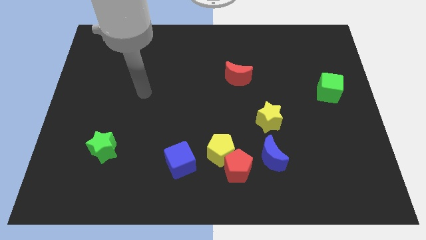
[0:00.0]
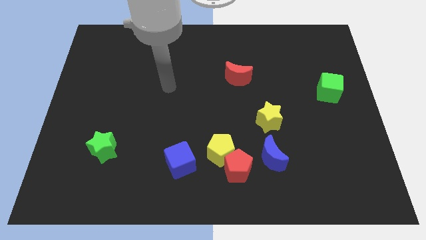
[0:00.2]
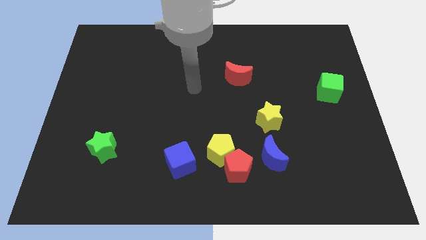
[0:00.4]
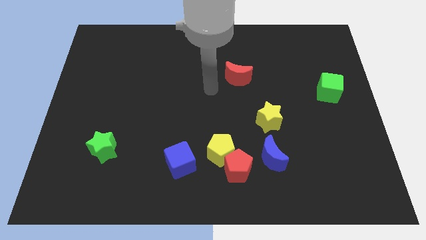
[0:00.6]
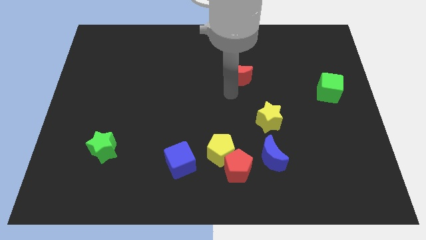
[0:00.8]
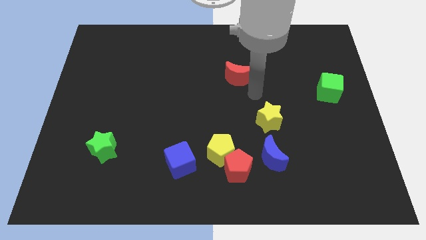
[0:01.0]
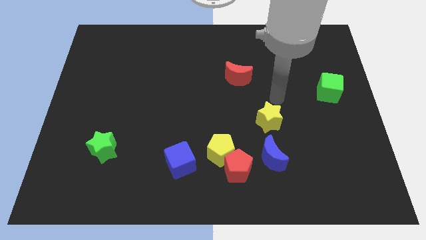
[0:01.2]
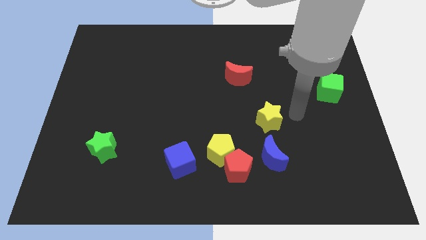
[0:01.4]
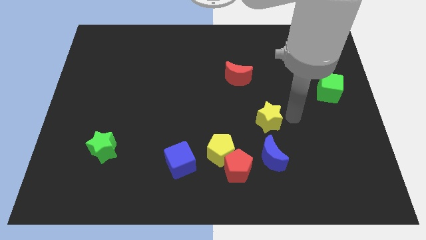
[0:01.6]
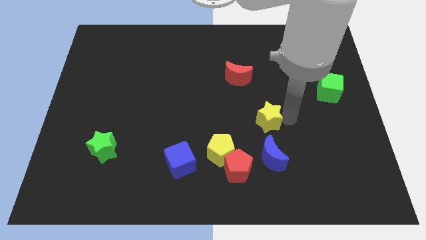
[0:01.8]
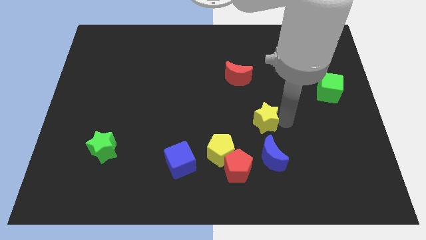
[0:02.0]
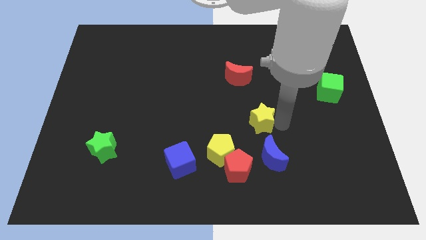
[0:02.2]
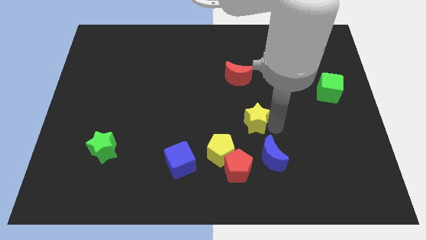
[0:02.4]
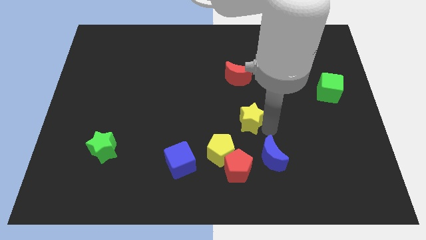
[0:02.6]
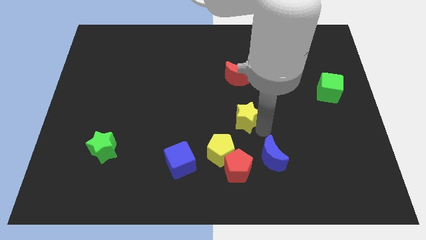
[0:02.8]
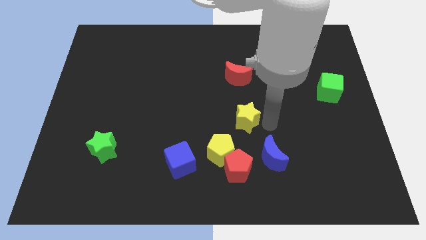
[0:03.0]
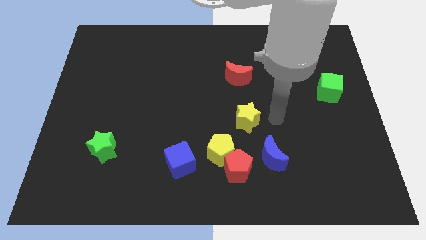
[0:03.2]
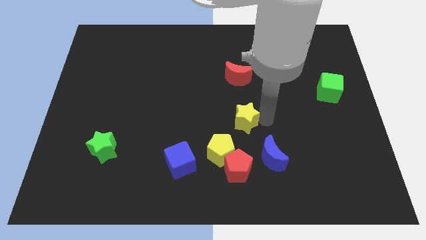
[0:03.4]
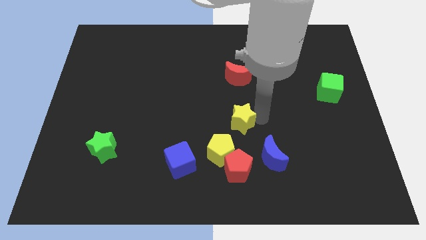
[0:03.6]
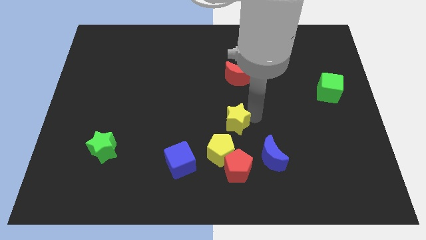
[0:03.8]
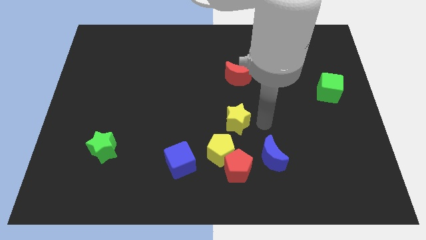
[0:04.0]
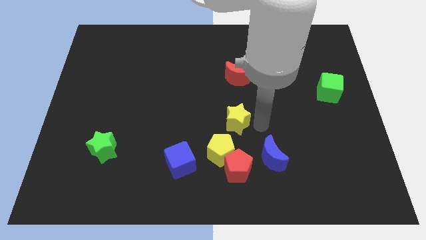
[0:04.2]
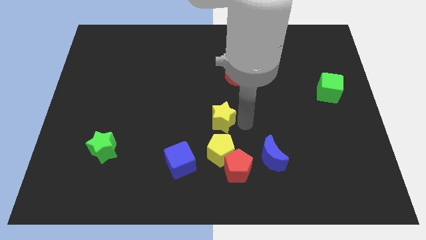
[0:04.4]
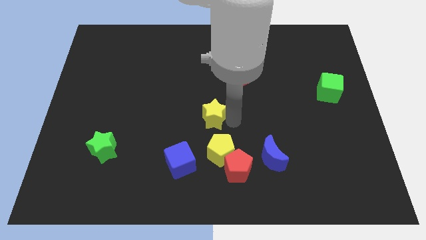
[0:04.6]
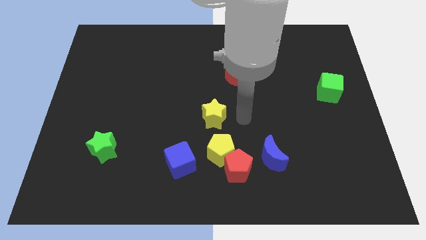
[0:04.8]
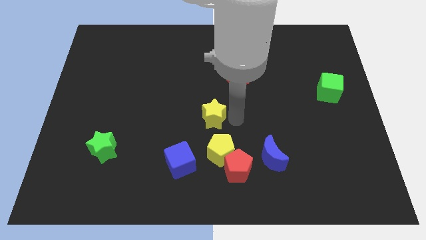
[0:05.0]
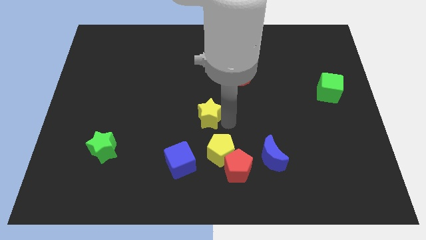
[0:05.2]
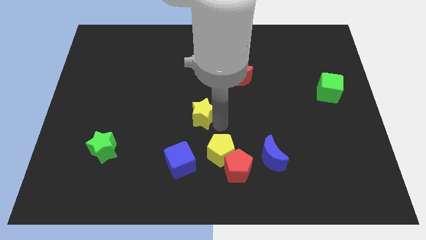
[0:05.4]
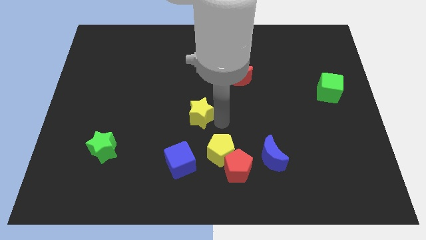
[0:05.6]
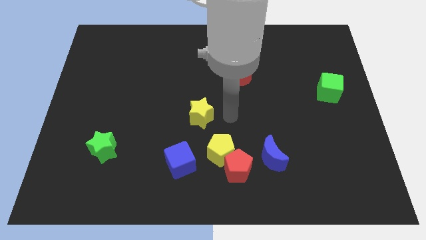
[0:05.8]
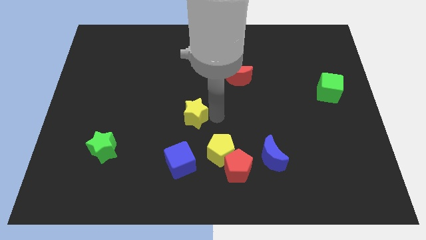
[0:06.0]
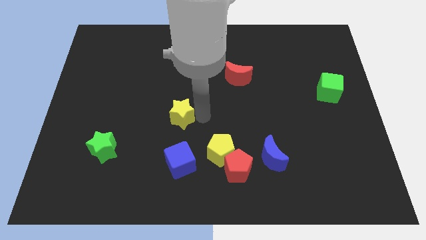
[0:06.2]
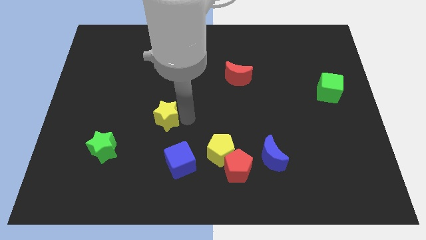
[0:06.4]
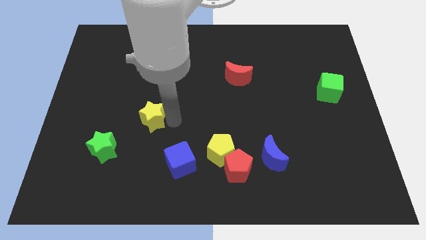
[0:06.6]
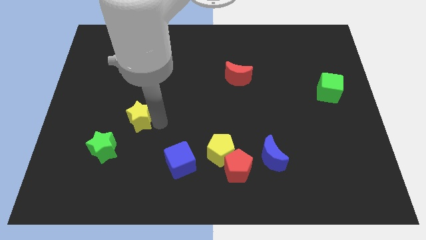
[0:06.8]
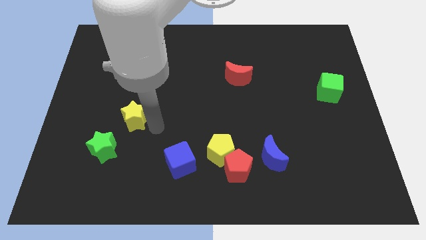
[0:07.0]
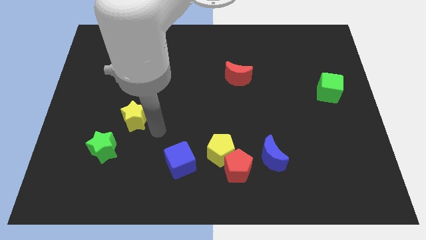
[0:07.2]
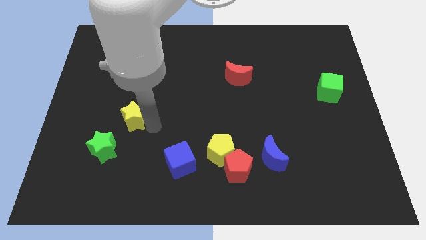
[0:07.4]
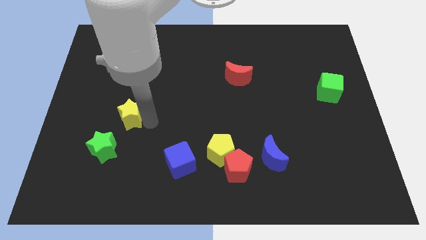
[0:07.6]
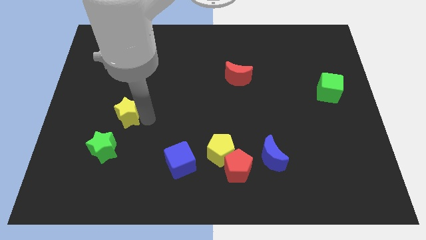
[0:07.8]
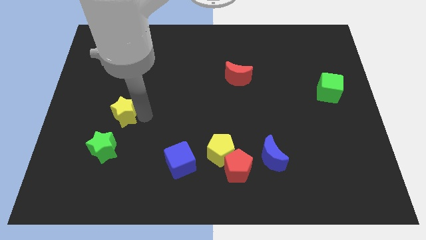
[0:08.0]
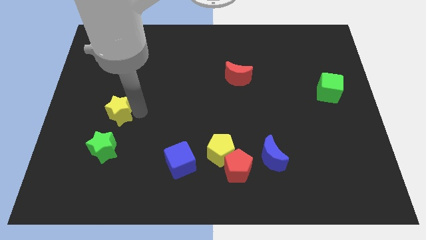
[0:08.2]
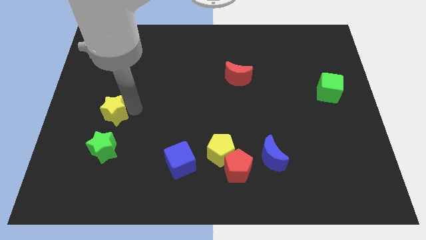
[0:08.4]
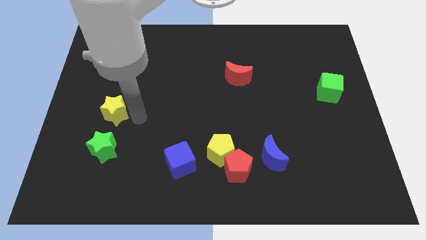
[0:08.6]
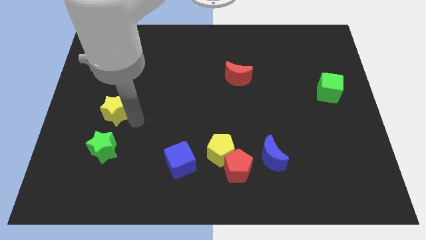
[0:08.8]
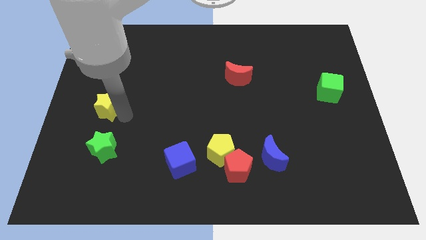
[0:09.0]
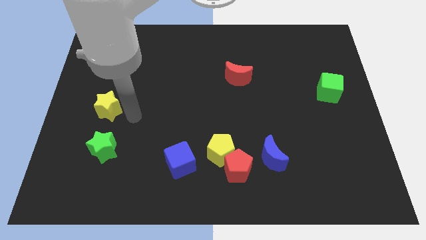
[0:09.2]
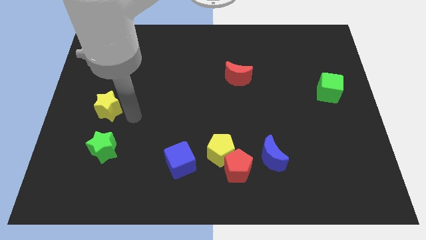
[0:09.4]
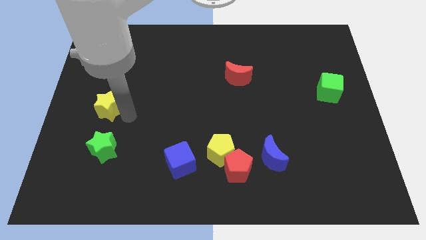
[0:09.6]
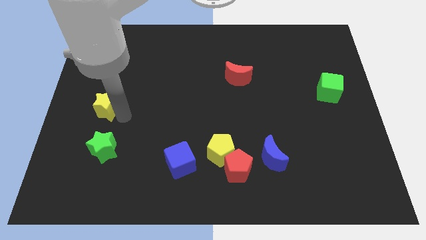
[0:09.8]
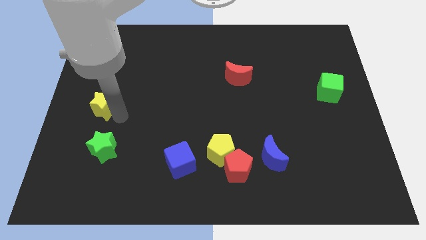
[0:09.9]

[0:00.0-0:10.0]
put the yellow star to the center left

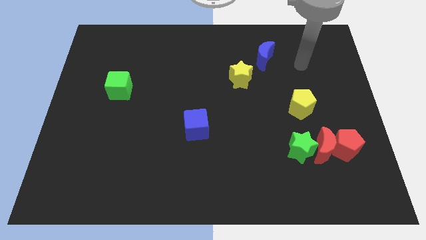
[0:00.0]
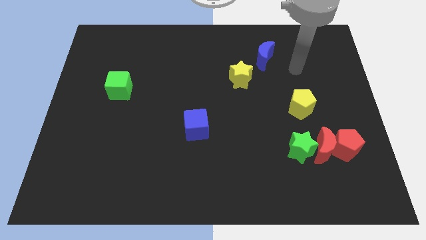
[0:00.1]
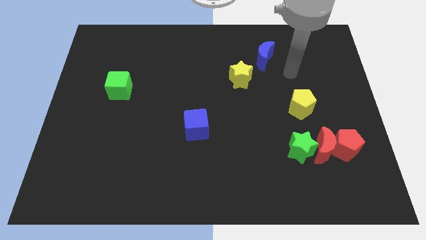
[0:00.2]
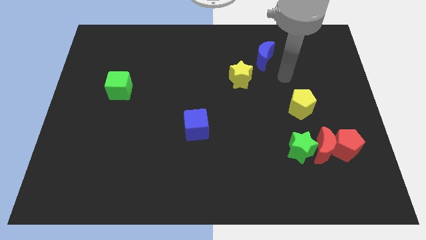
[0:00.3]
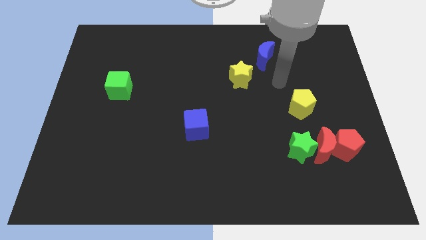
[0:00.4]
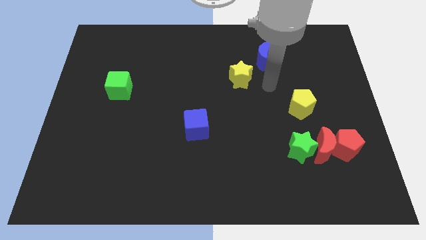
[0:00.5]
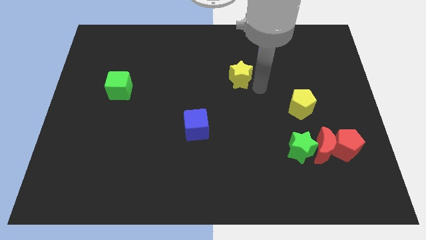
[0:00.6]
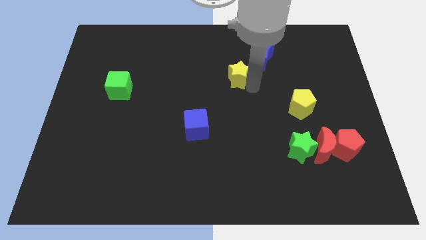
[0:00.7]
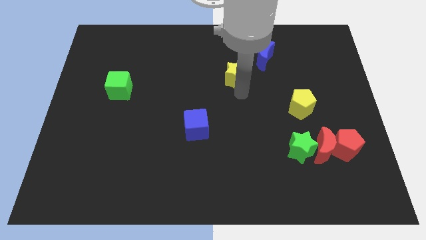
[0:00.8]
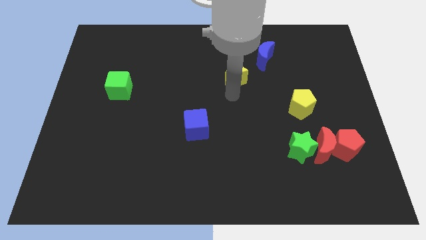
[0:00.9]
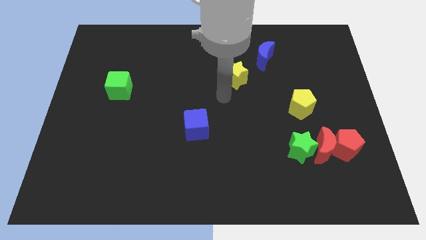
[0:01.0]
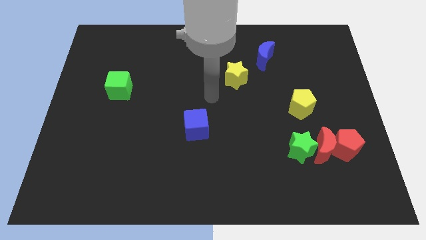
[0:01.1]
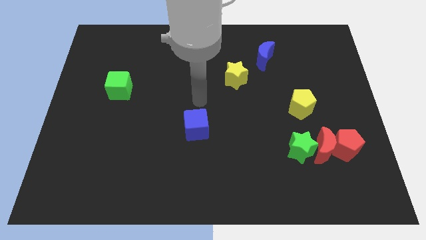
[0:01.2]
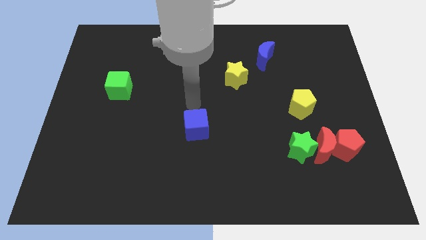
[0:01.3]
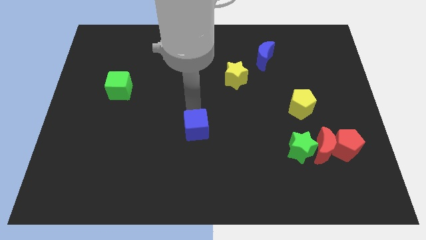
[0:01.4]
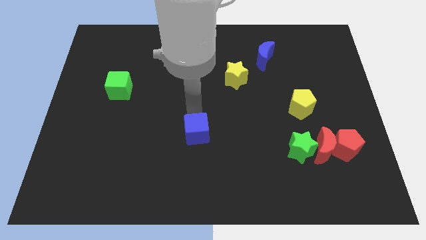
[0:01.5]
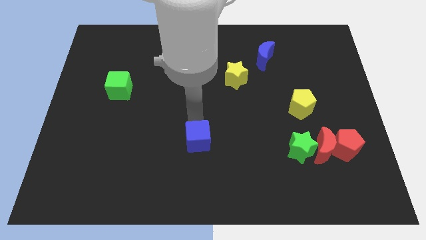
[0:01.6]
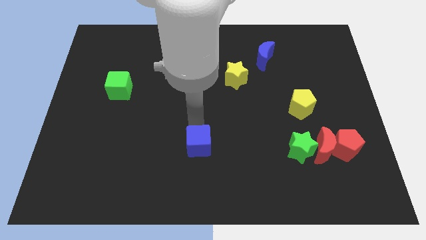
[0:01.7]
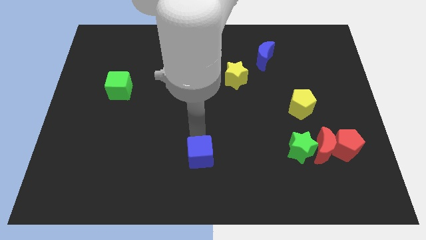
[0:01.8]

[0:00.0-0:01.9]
move the blue cube to the bottom
